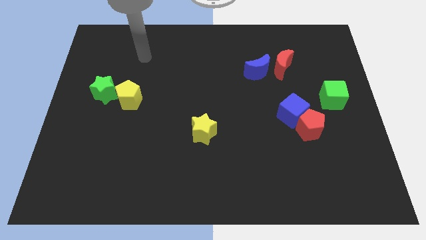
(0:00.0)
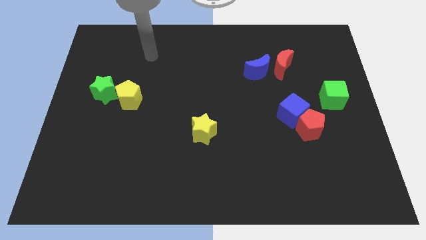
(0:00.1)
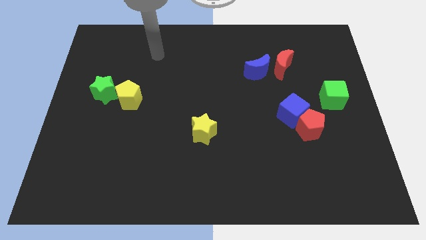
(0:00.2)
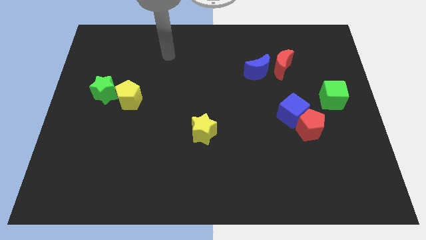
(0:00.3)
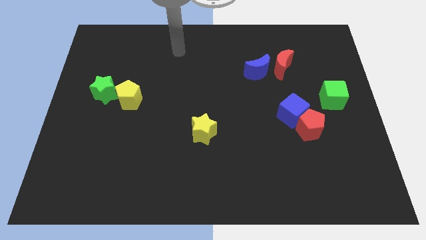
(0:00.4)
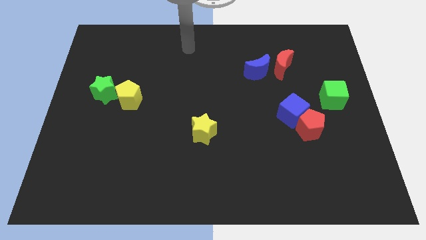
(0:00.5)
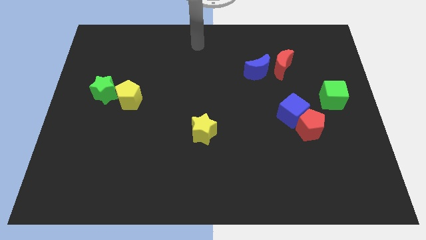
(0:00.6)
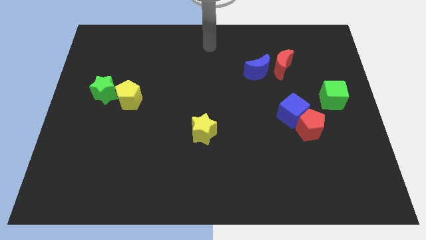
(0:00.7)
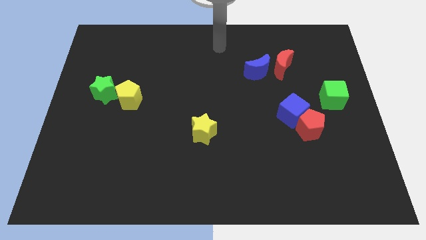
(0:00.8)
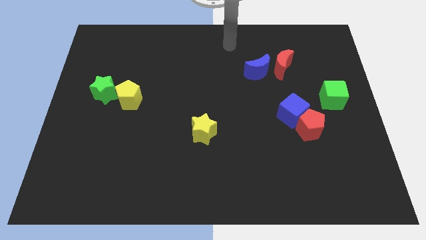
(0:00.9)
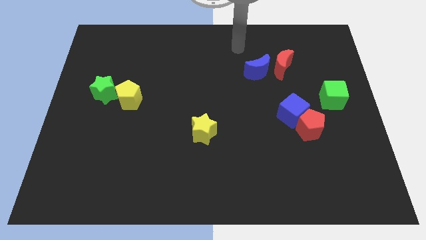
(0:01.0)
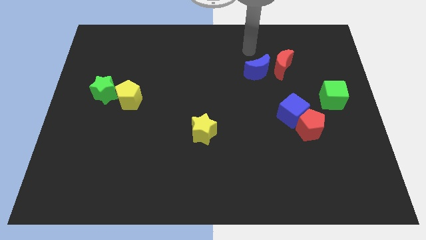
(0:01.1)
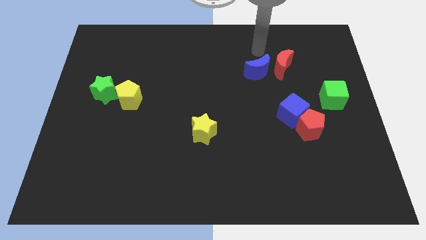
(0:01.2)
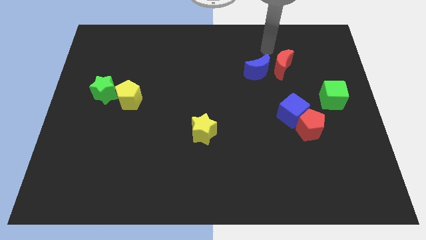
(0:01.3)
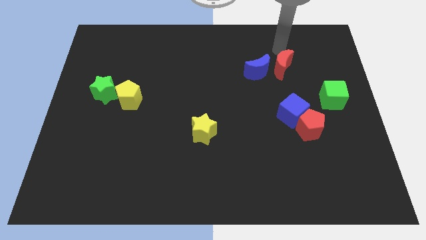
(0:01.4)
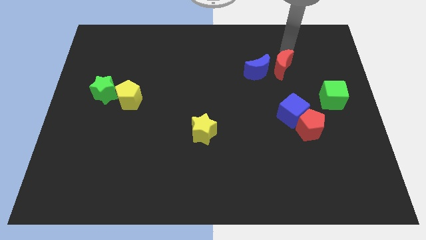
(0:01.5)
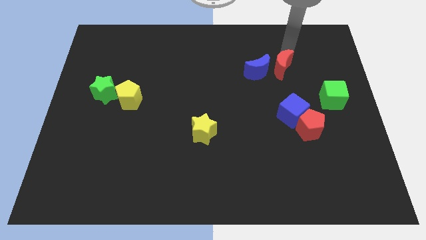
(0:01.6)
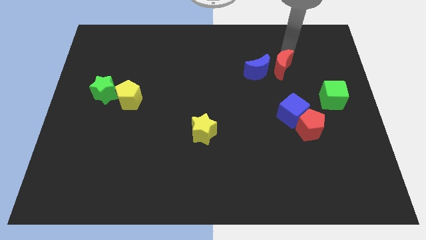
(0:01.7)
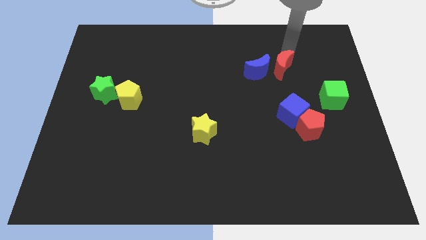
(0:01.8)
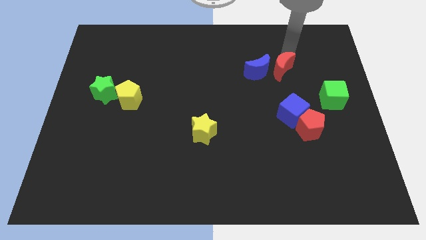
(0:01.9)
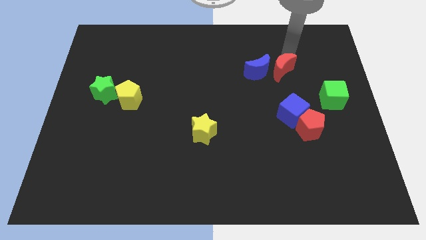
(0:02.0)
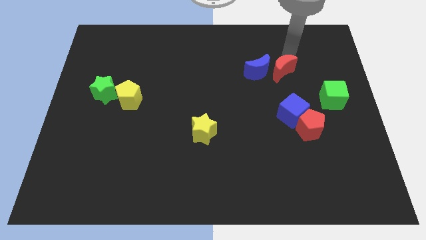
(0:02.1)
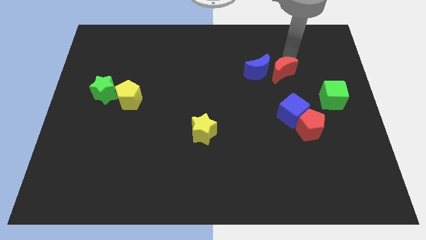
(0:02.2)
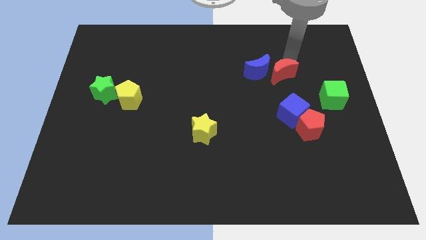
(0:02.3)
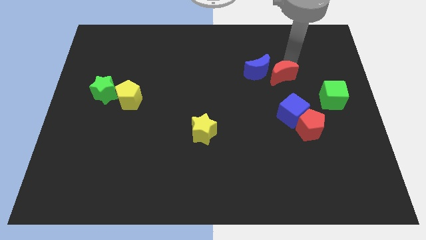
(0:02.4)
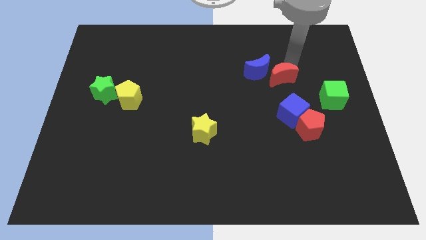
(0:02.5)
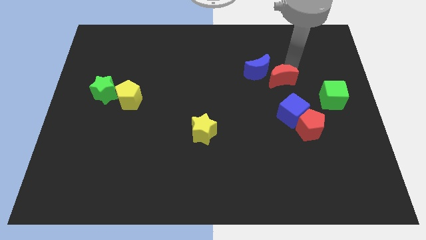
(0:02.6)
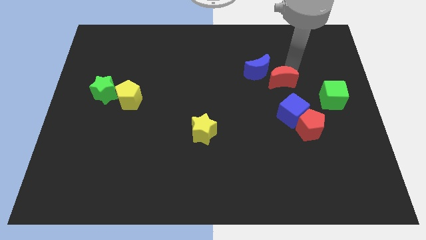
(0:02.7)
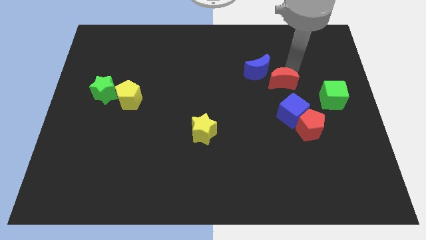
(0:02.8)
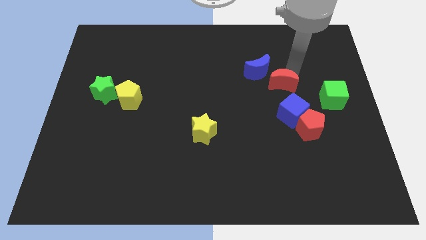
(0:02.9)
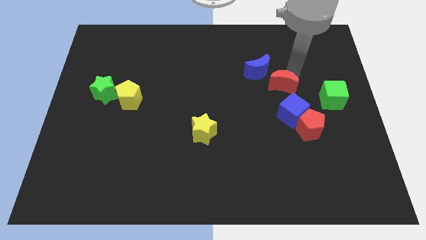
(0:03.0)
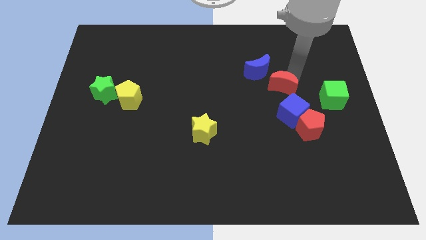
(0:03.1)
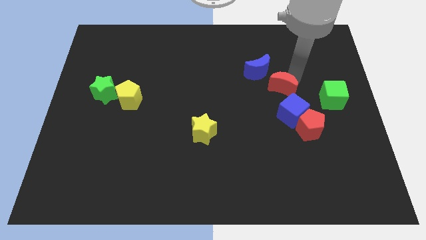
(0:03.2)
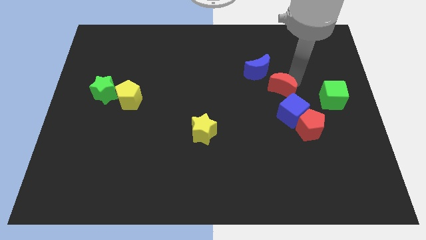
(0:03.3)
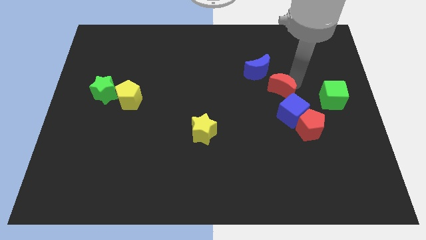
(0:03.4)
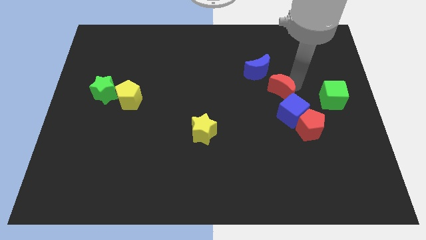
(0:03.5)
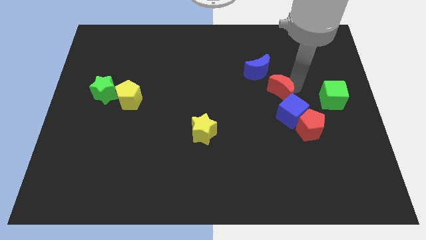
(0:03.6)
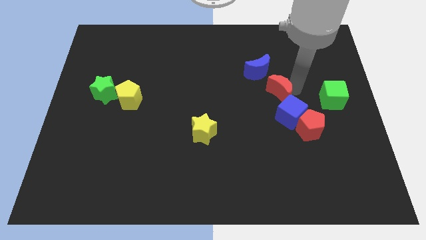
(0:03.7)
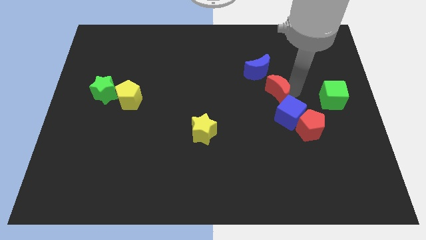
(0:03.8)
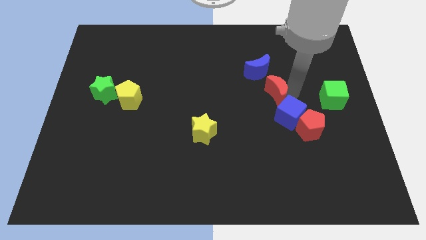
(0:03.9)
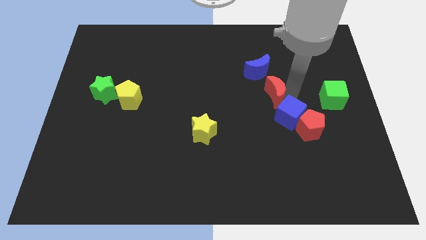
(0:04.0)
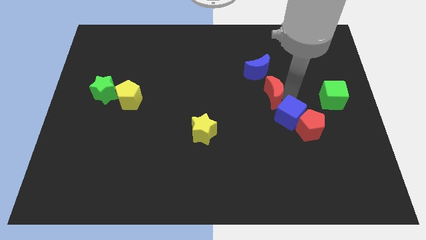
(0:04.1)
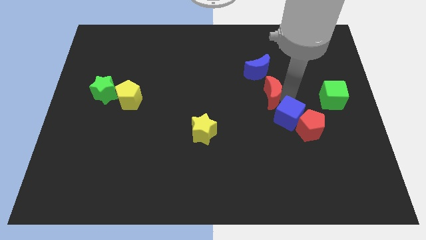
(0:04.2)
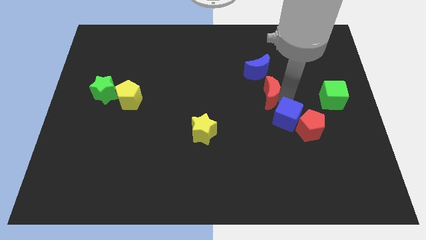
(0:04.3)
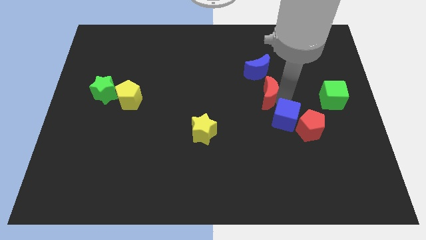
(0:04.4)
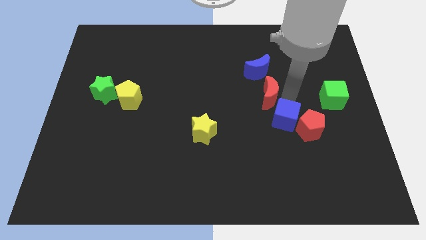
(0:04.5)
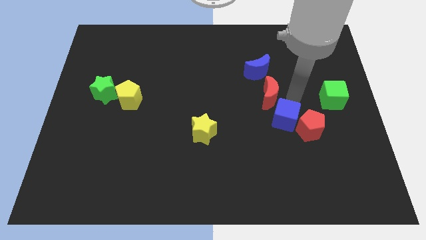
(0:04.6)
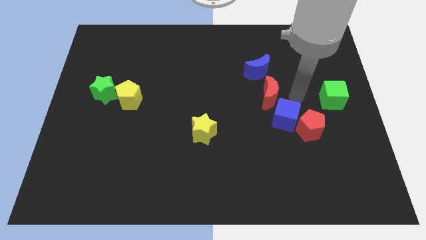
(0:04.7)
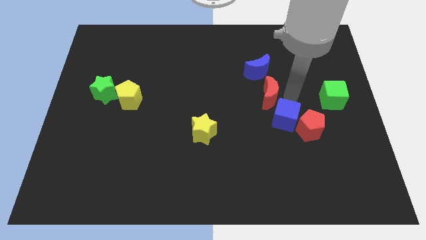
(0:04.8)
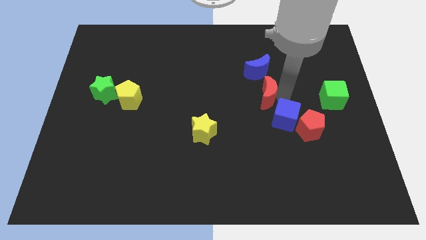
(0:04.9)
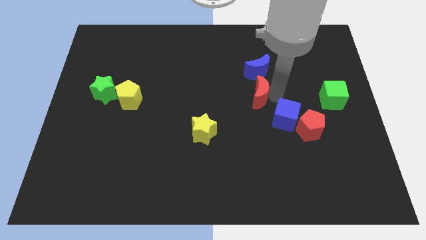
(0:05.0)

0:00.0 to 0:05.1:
move the red moon to the center of the board

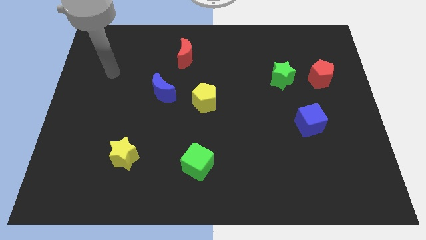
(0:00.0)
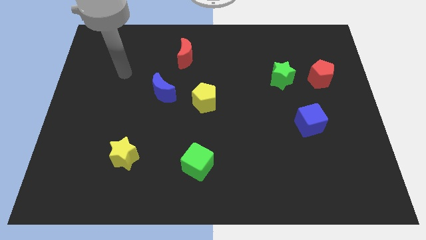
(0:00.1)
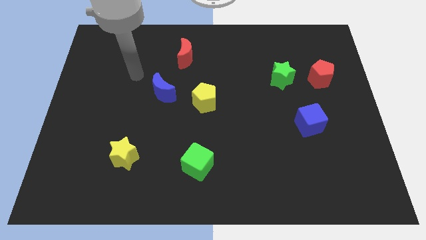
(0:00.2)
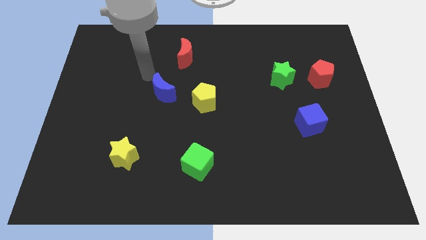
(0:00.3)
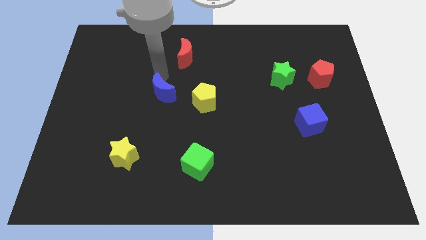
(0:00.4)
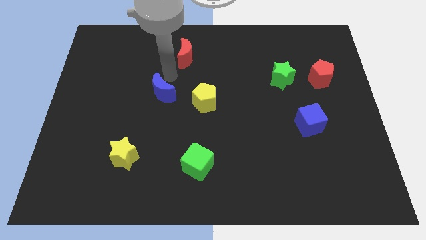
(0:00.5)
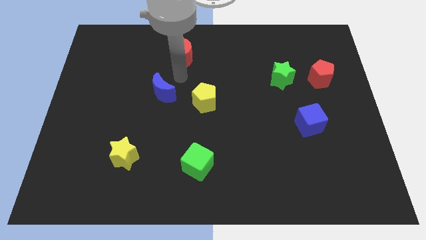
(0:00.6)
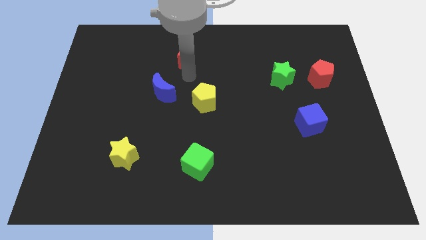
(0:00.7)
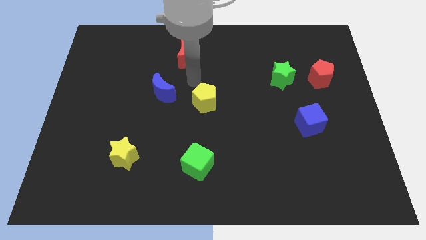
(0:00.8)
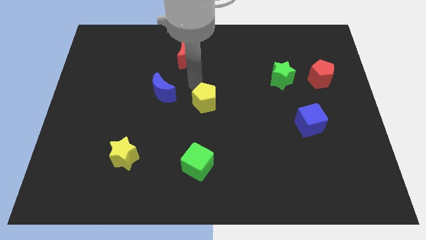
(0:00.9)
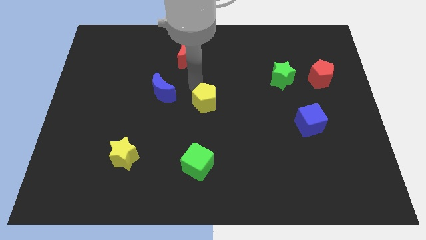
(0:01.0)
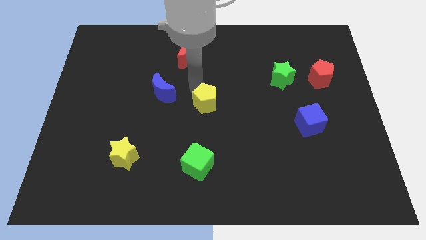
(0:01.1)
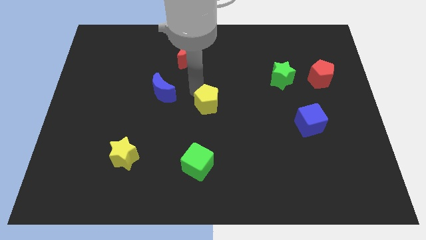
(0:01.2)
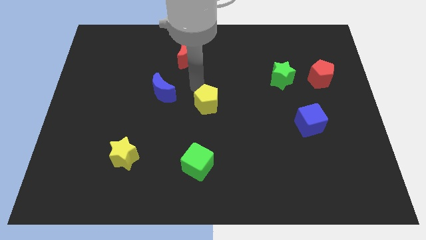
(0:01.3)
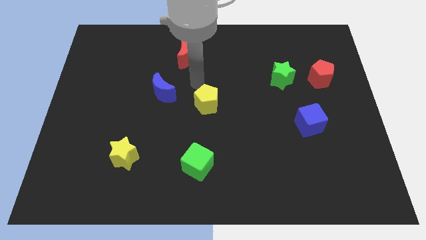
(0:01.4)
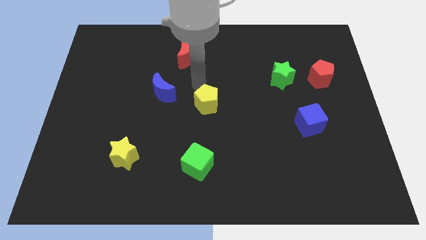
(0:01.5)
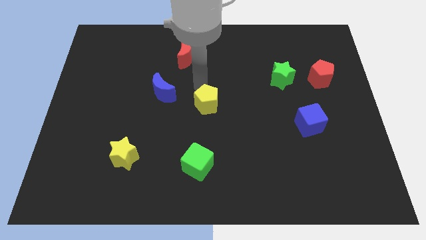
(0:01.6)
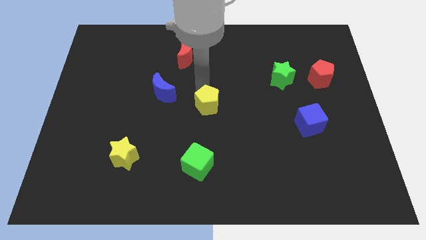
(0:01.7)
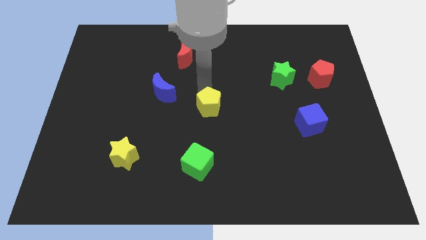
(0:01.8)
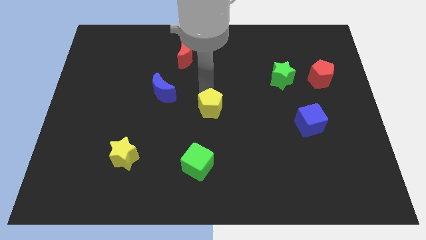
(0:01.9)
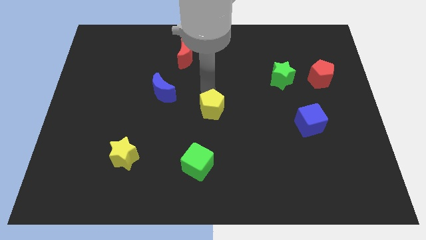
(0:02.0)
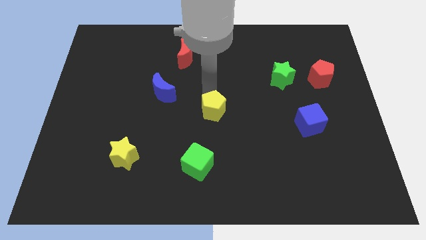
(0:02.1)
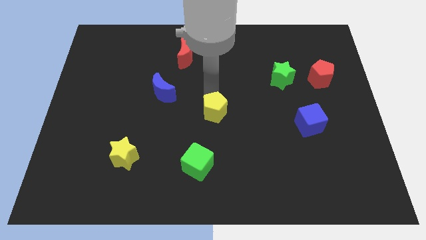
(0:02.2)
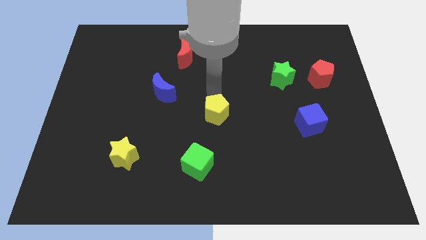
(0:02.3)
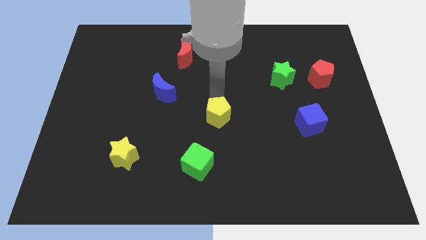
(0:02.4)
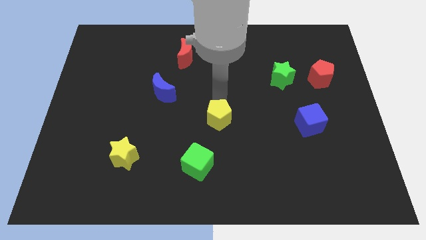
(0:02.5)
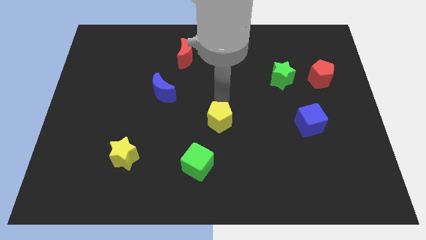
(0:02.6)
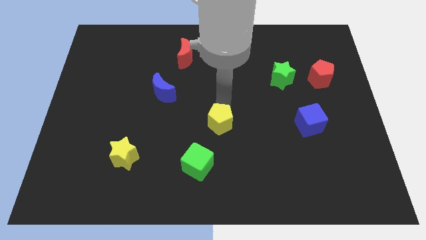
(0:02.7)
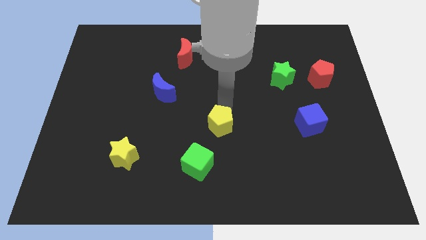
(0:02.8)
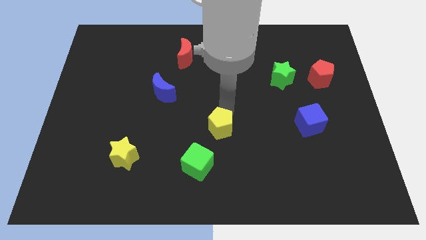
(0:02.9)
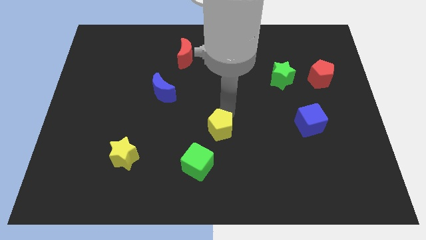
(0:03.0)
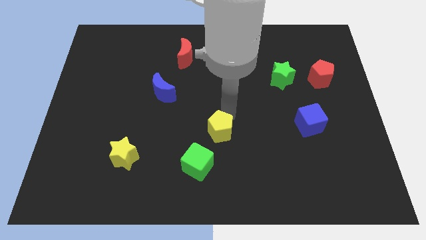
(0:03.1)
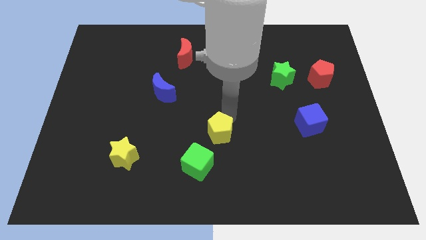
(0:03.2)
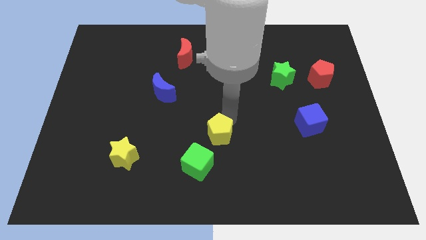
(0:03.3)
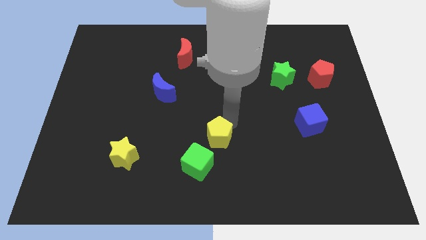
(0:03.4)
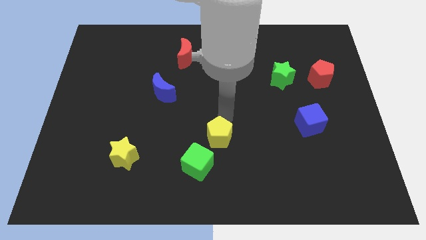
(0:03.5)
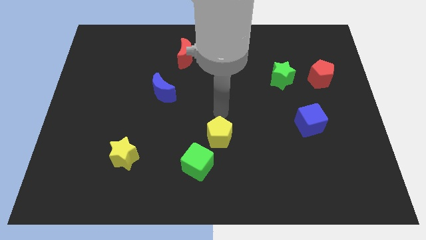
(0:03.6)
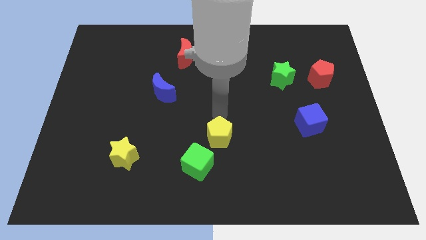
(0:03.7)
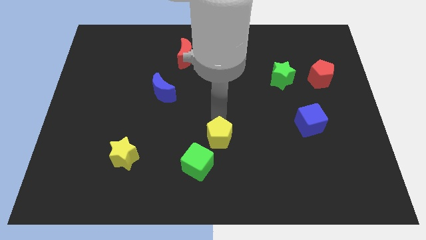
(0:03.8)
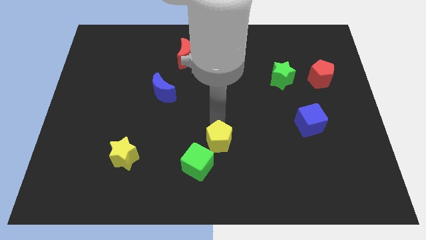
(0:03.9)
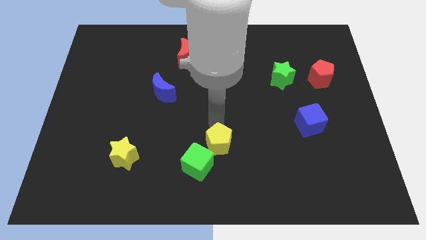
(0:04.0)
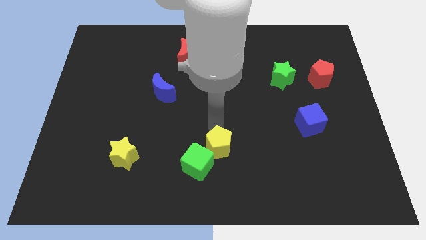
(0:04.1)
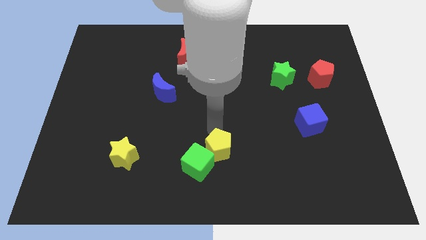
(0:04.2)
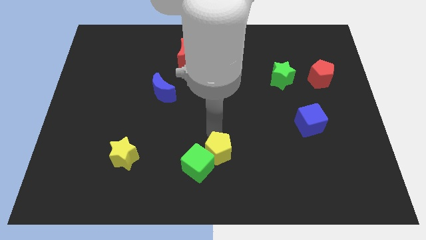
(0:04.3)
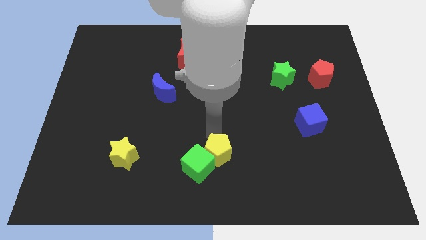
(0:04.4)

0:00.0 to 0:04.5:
slide the yellow pentagon to the bottom side
